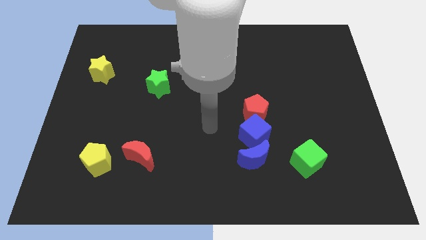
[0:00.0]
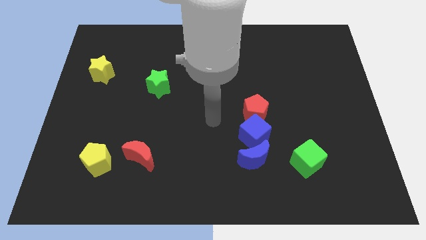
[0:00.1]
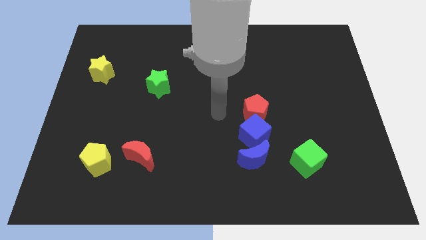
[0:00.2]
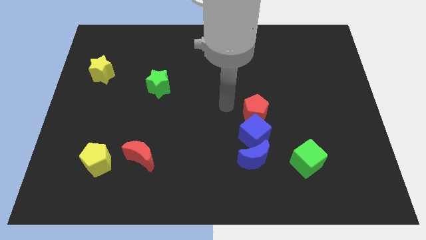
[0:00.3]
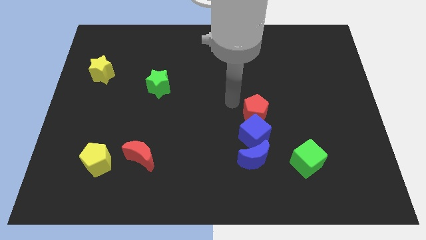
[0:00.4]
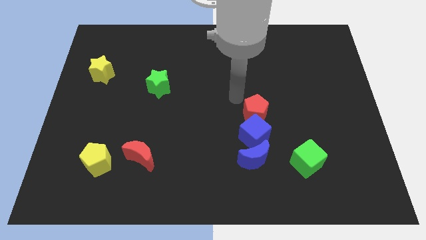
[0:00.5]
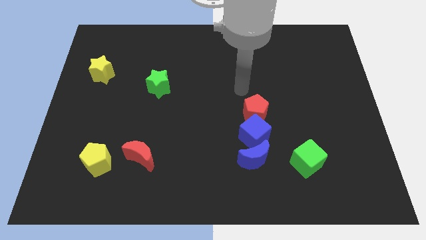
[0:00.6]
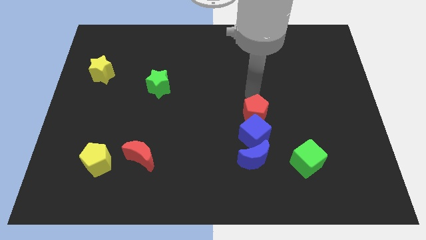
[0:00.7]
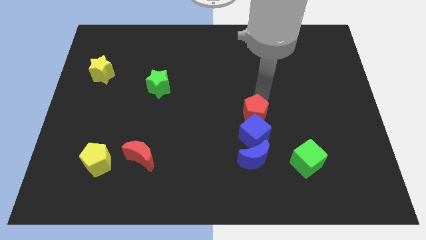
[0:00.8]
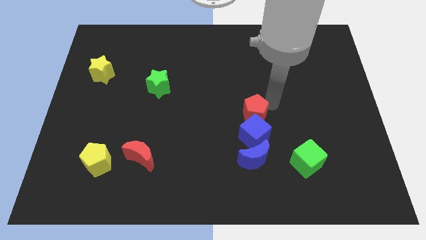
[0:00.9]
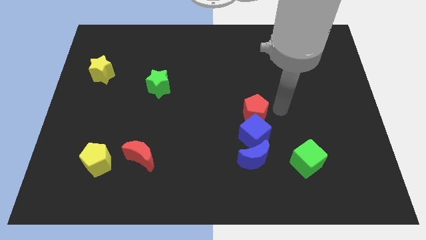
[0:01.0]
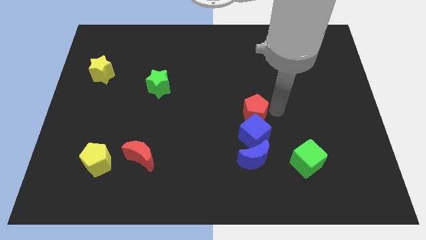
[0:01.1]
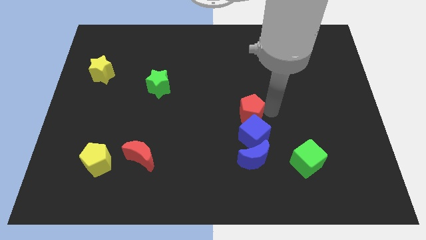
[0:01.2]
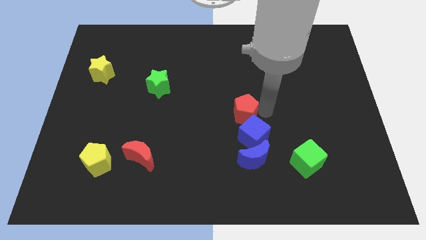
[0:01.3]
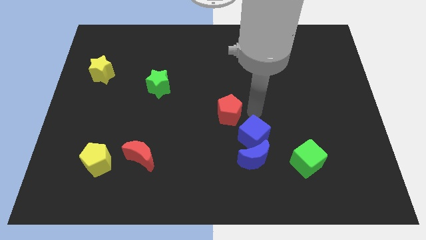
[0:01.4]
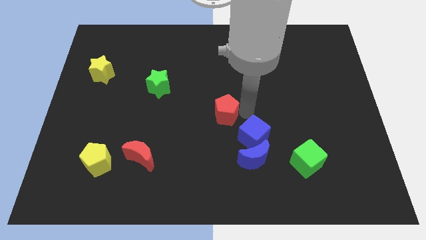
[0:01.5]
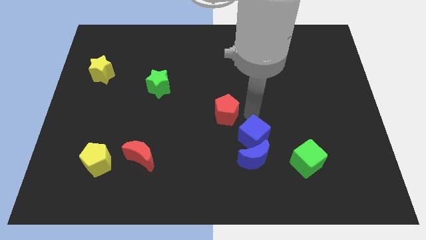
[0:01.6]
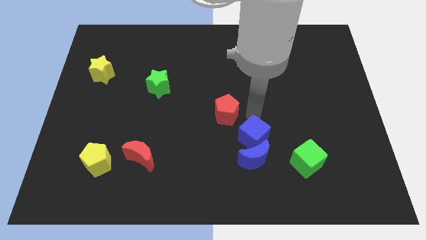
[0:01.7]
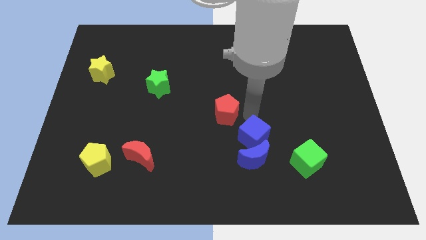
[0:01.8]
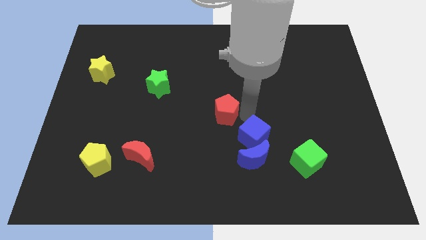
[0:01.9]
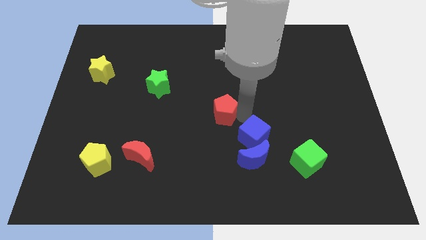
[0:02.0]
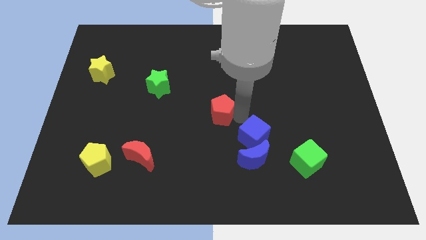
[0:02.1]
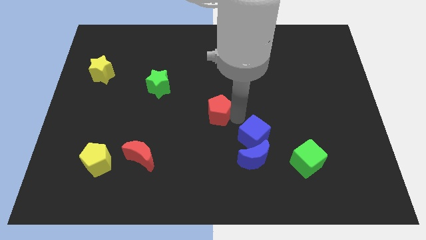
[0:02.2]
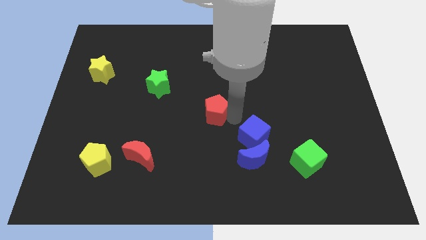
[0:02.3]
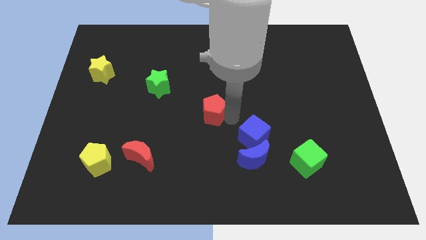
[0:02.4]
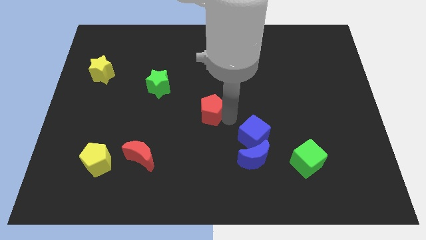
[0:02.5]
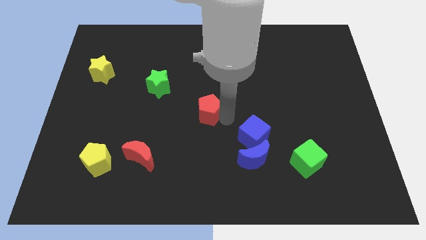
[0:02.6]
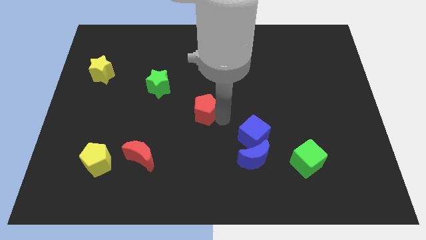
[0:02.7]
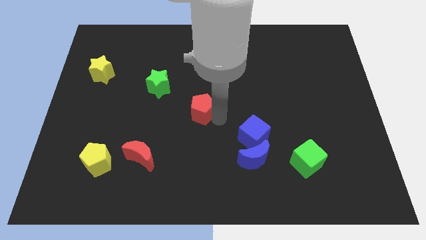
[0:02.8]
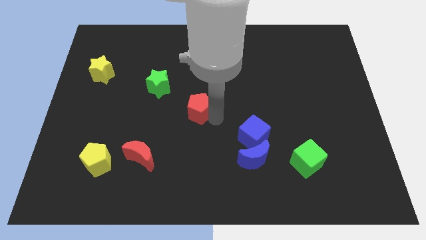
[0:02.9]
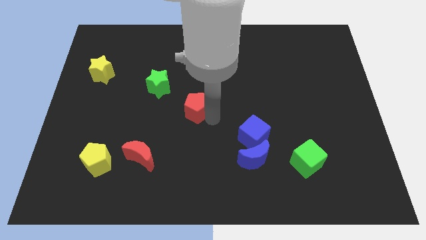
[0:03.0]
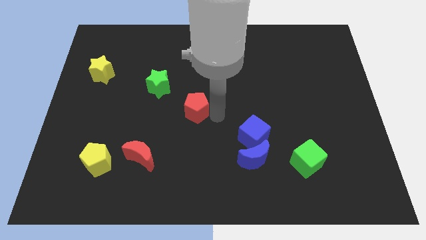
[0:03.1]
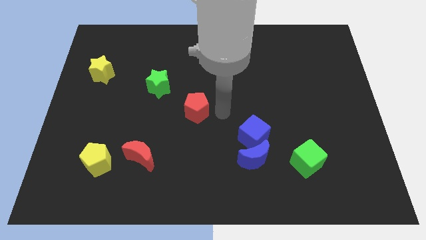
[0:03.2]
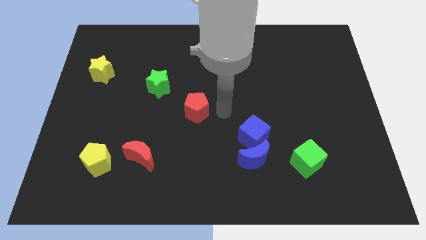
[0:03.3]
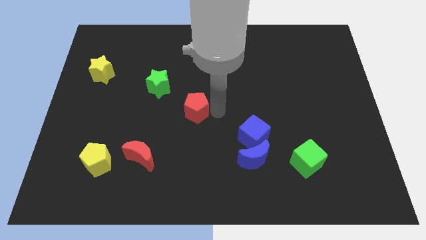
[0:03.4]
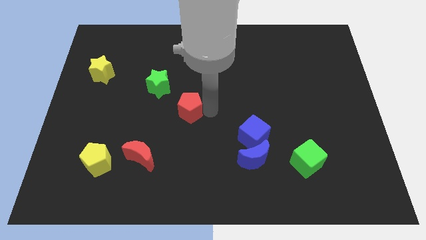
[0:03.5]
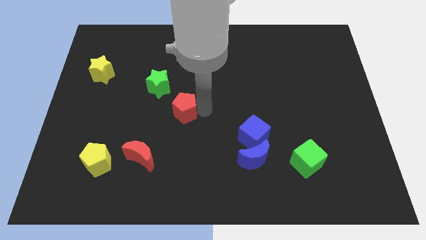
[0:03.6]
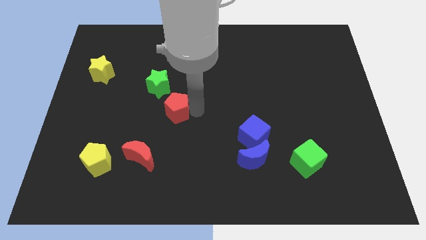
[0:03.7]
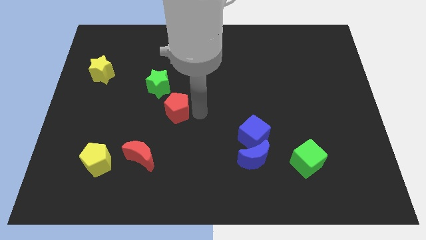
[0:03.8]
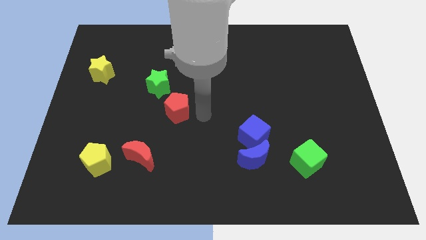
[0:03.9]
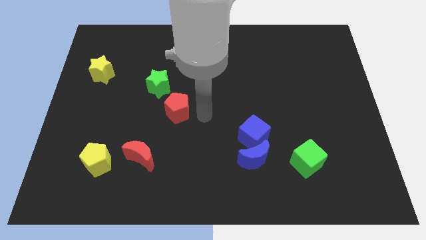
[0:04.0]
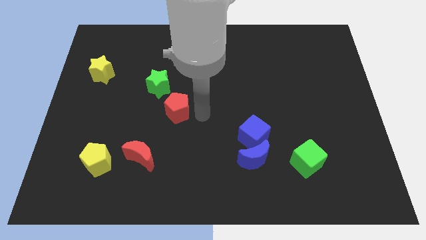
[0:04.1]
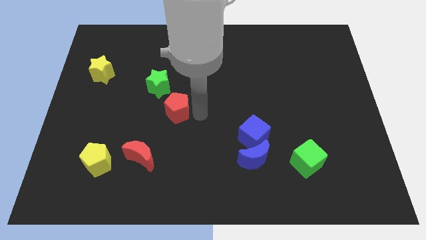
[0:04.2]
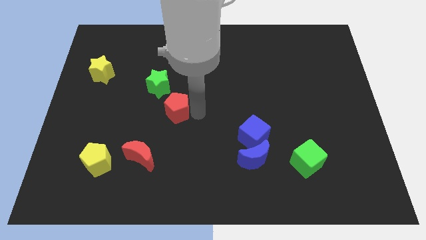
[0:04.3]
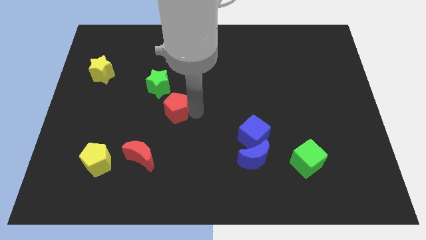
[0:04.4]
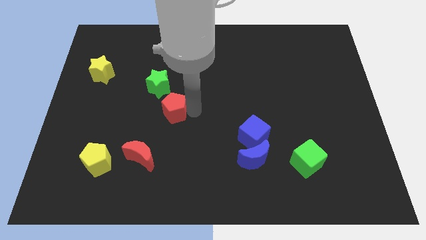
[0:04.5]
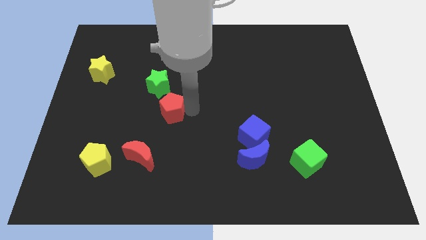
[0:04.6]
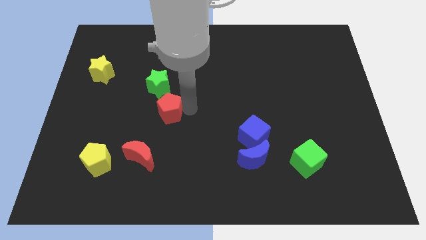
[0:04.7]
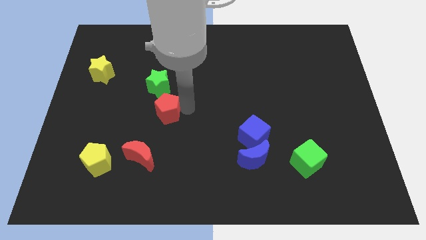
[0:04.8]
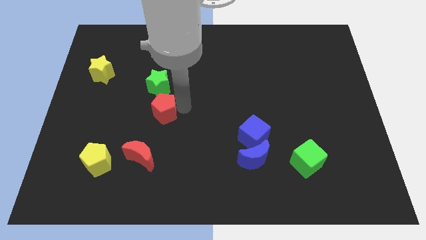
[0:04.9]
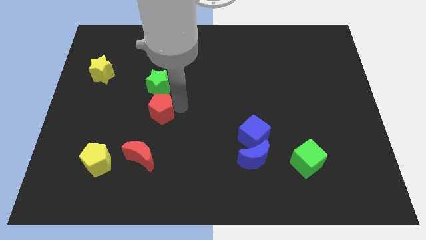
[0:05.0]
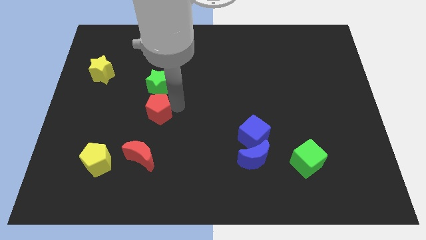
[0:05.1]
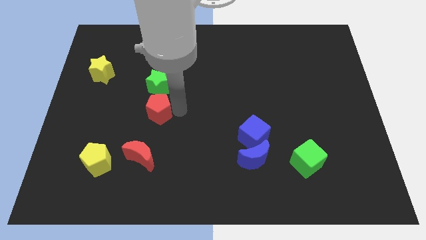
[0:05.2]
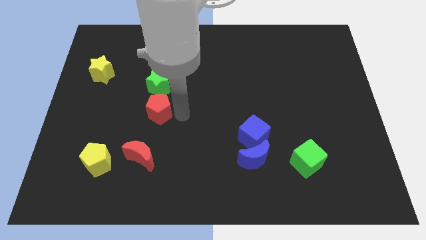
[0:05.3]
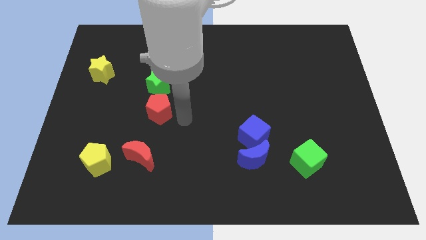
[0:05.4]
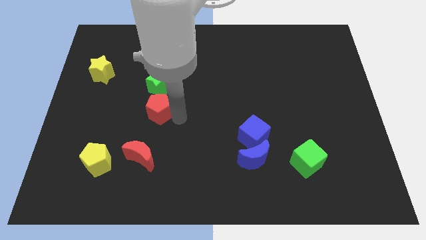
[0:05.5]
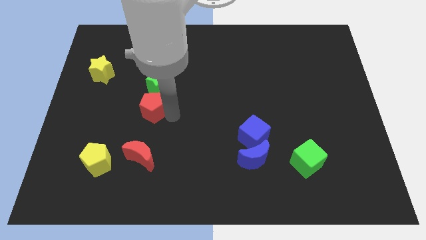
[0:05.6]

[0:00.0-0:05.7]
slide the red pentagon to the bottom left of the green star

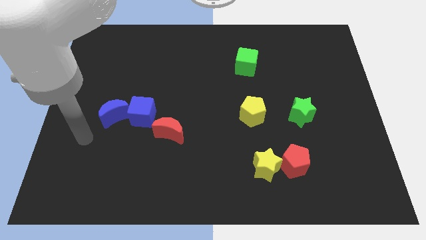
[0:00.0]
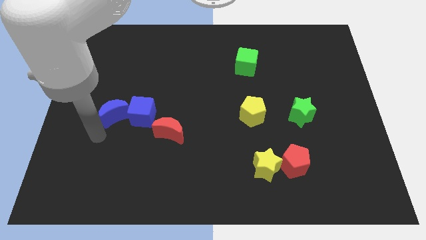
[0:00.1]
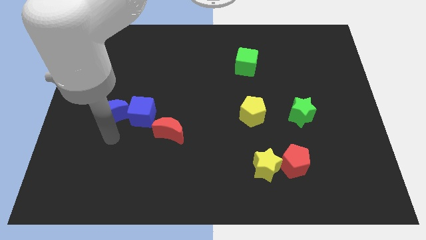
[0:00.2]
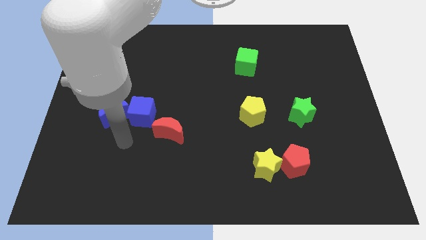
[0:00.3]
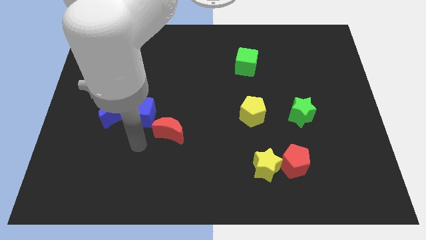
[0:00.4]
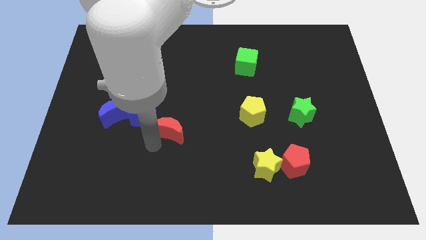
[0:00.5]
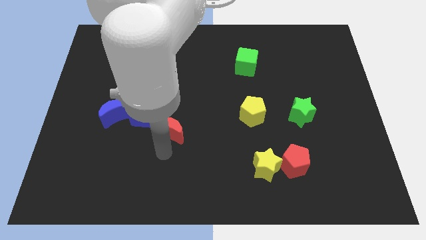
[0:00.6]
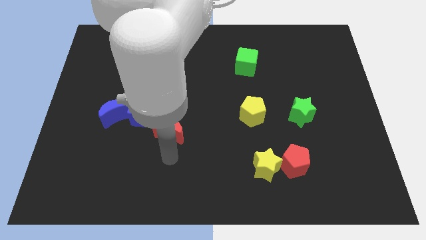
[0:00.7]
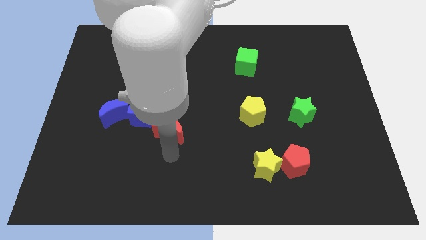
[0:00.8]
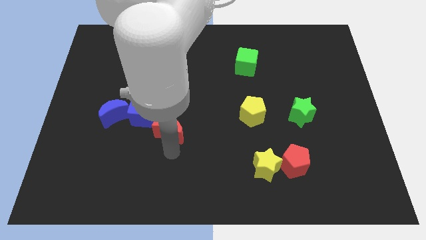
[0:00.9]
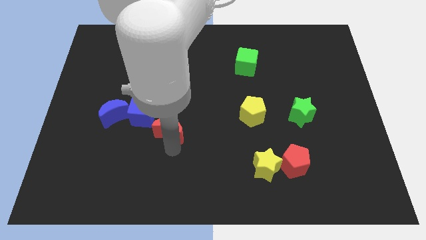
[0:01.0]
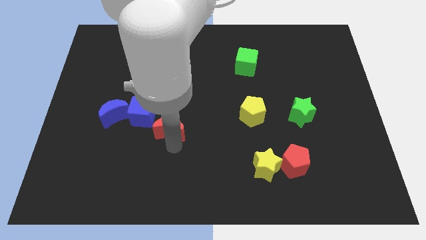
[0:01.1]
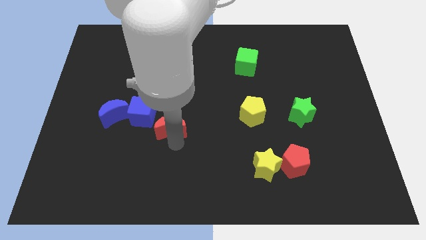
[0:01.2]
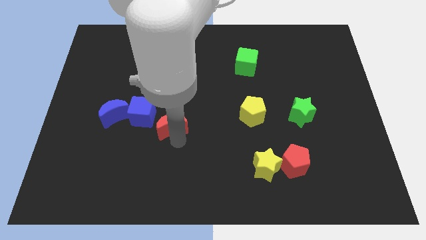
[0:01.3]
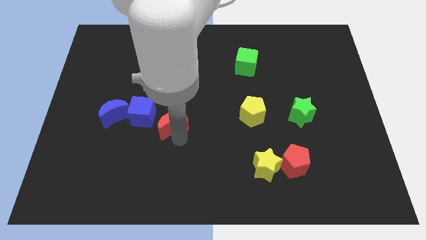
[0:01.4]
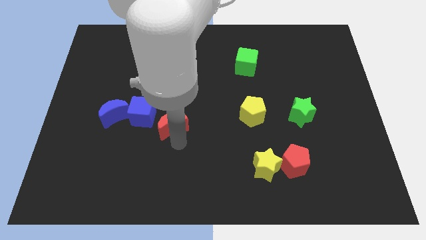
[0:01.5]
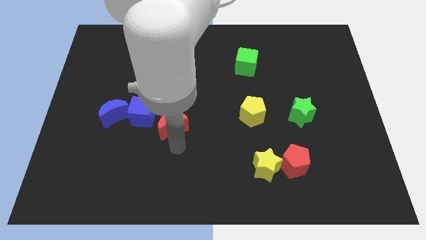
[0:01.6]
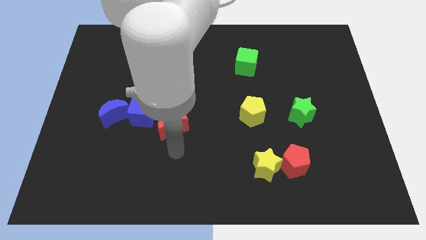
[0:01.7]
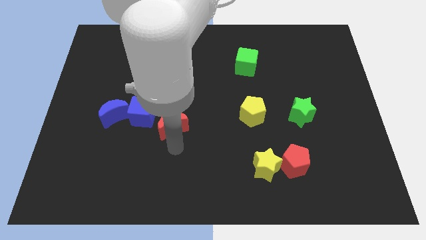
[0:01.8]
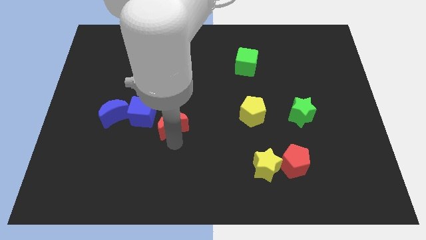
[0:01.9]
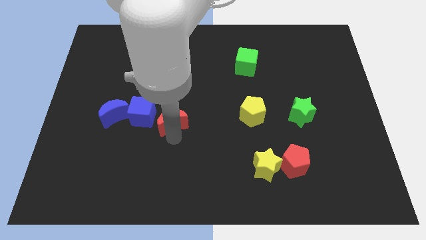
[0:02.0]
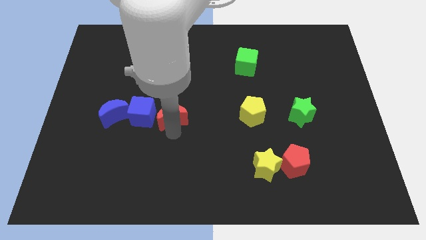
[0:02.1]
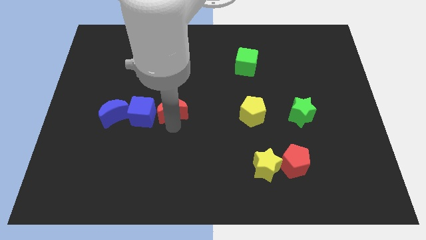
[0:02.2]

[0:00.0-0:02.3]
slide the red moon to the top right of the blue cube
